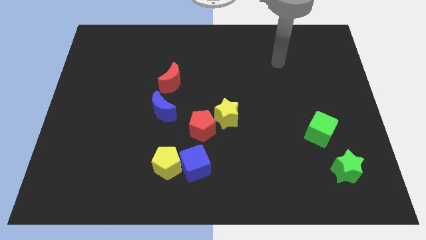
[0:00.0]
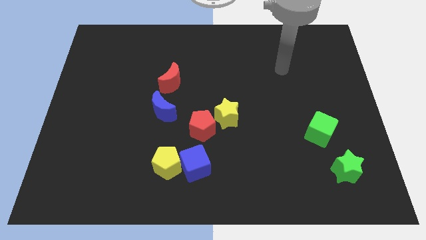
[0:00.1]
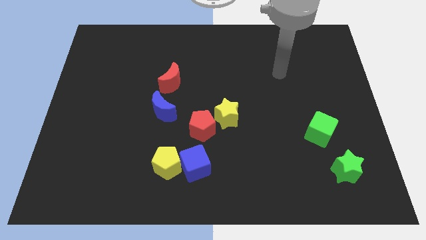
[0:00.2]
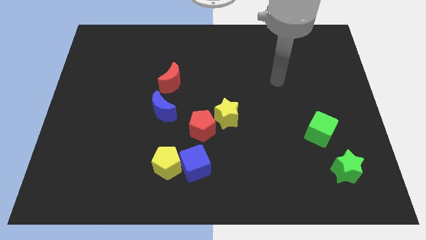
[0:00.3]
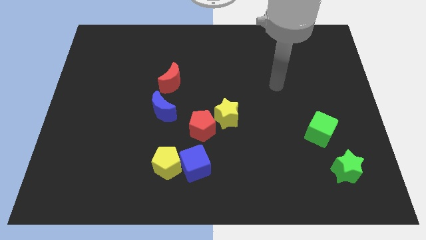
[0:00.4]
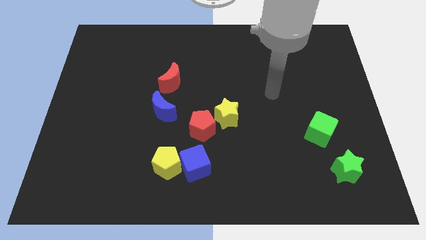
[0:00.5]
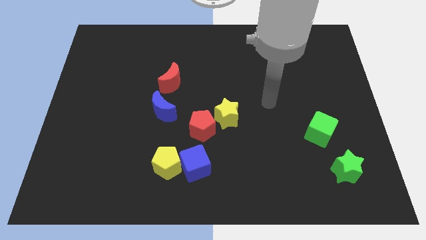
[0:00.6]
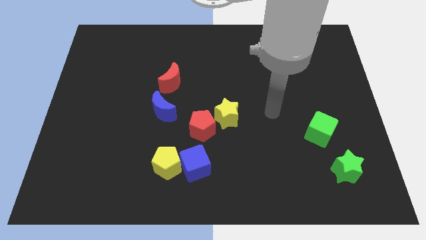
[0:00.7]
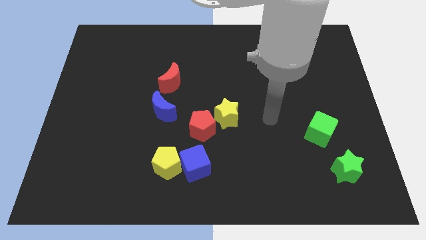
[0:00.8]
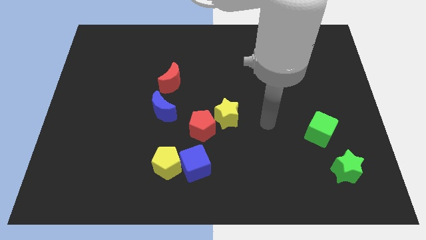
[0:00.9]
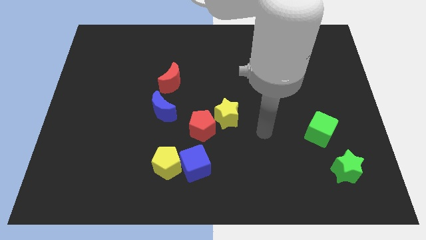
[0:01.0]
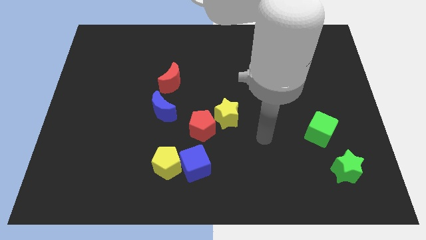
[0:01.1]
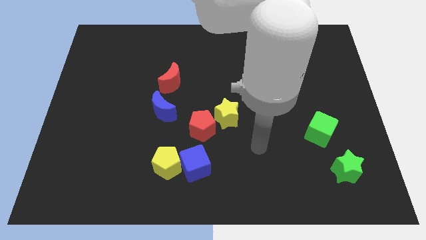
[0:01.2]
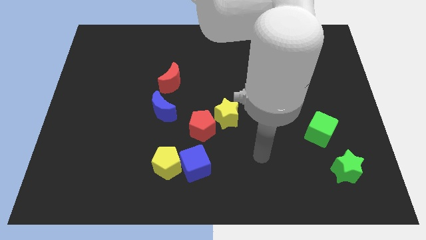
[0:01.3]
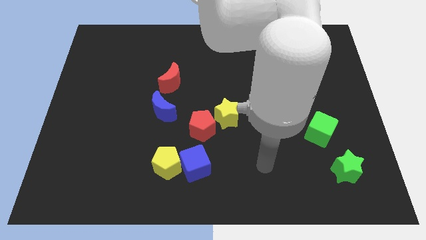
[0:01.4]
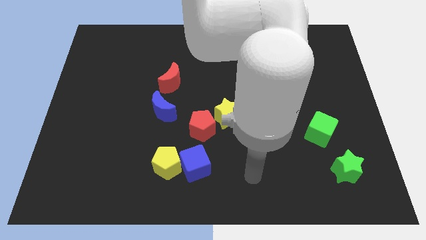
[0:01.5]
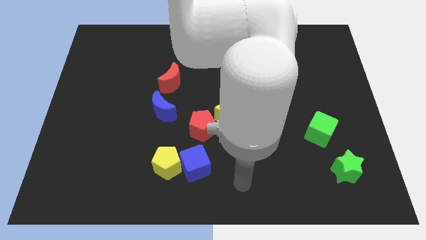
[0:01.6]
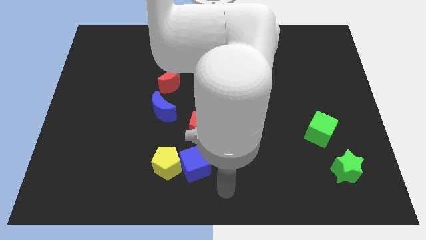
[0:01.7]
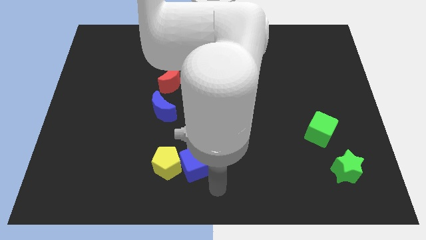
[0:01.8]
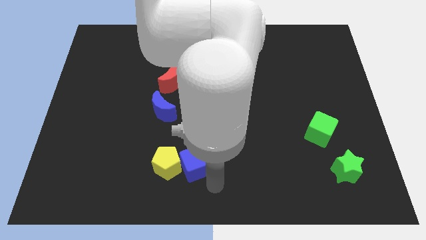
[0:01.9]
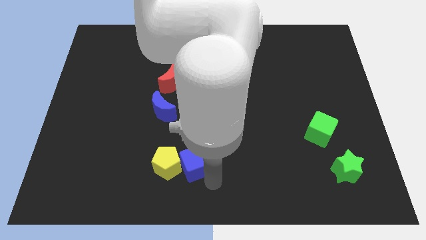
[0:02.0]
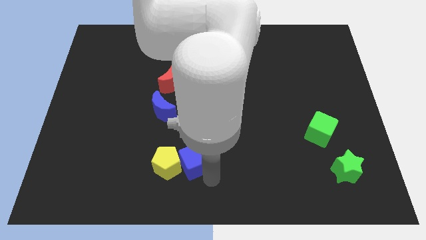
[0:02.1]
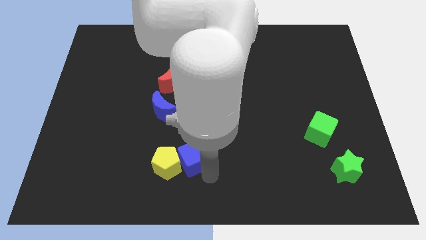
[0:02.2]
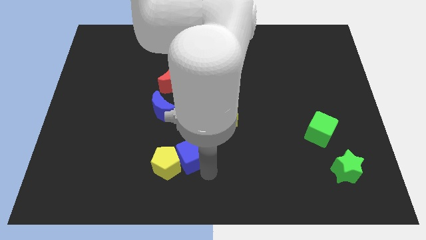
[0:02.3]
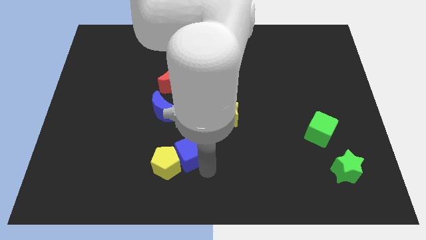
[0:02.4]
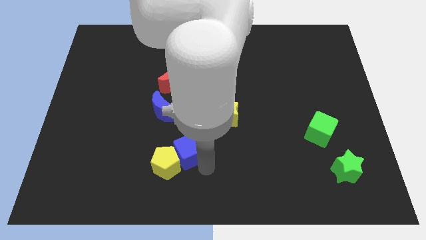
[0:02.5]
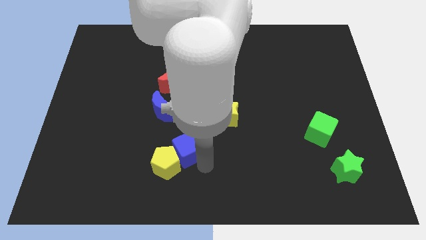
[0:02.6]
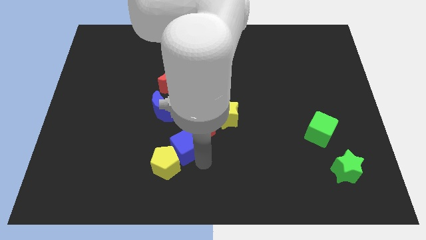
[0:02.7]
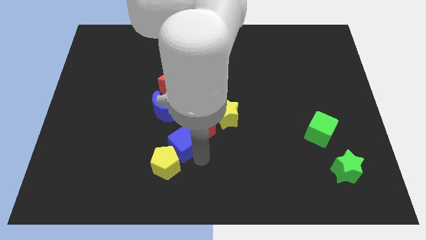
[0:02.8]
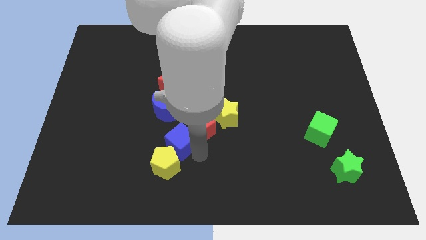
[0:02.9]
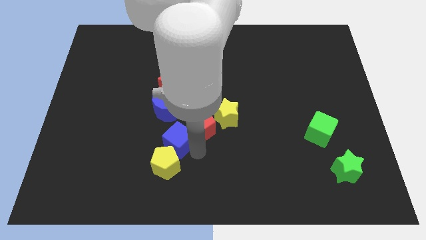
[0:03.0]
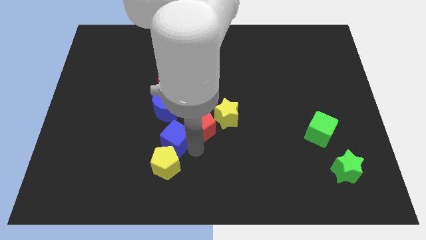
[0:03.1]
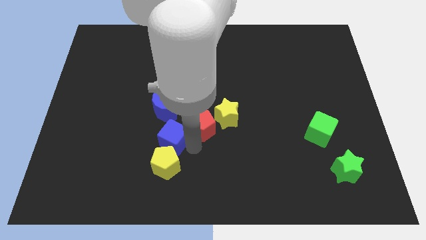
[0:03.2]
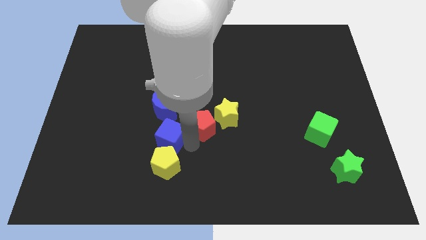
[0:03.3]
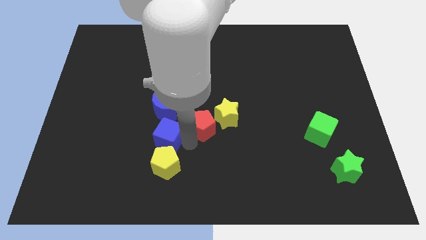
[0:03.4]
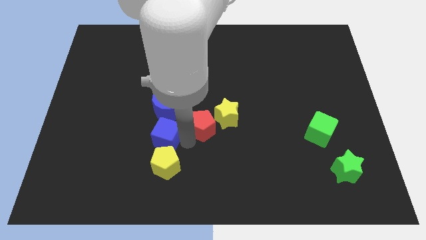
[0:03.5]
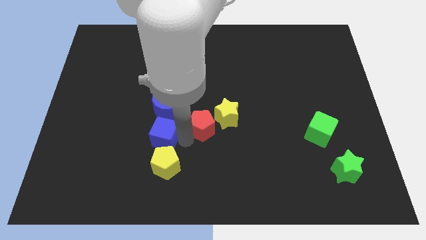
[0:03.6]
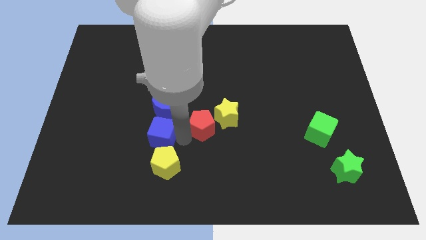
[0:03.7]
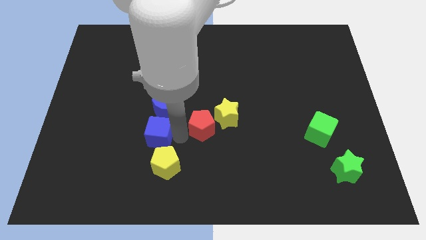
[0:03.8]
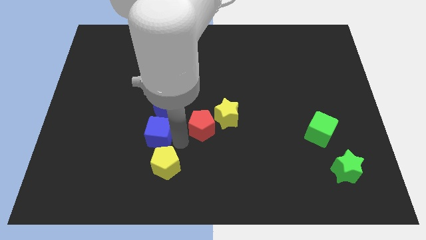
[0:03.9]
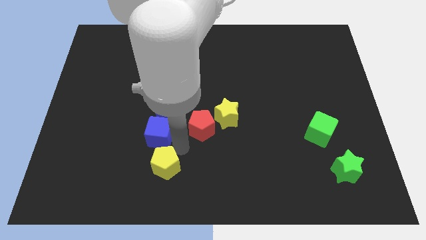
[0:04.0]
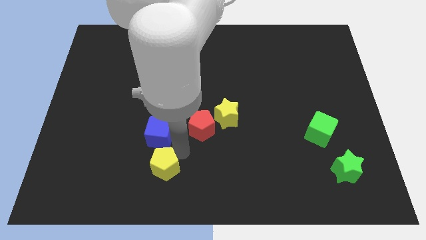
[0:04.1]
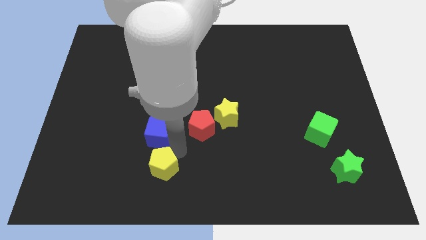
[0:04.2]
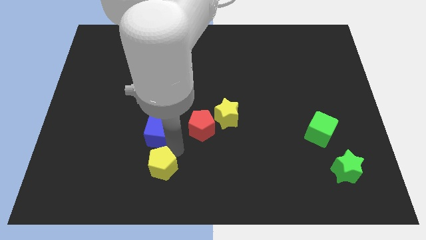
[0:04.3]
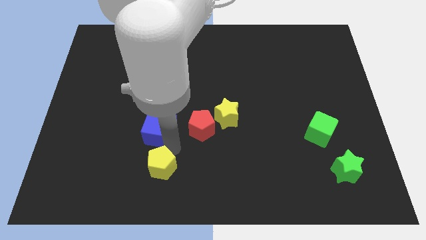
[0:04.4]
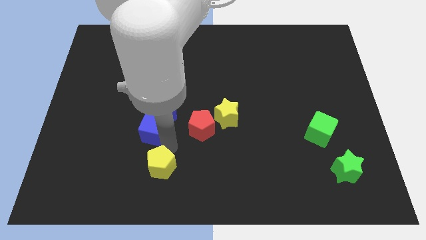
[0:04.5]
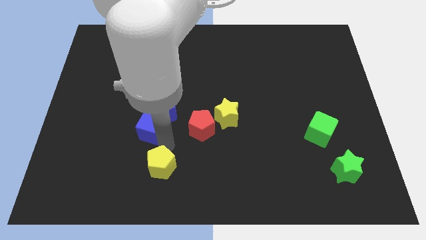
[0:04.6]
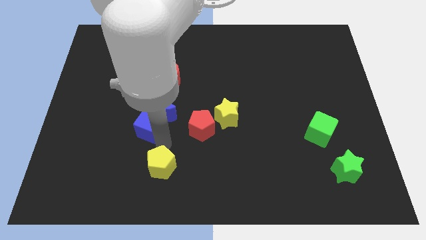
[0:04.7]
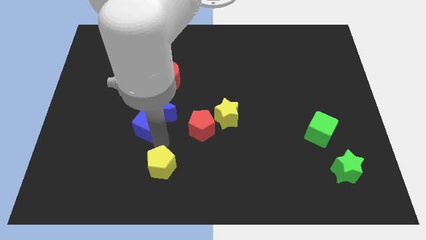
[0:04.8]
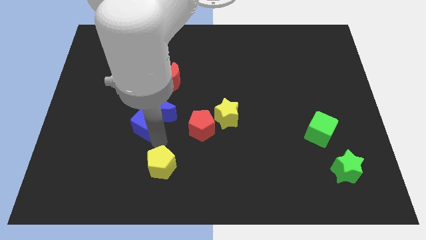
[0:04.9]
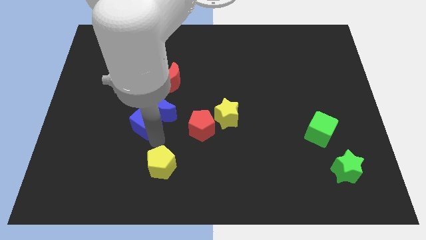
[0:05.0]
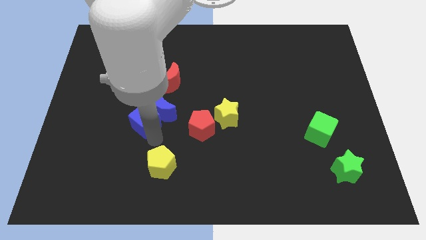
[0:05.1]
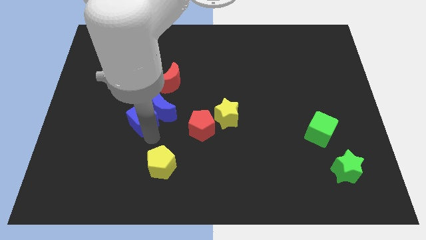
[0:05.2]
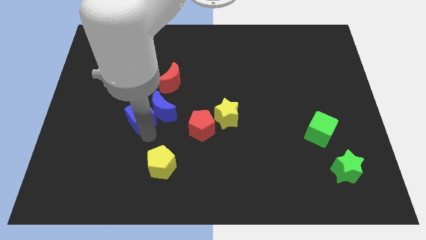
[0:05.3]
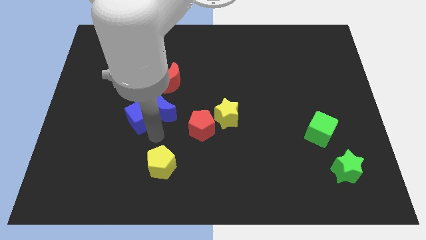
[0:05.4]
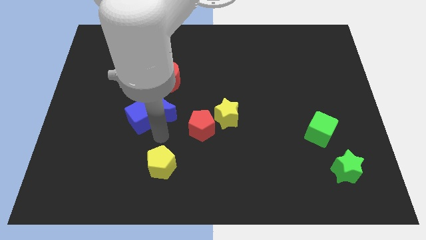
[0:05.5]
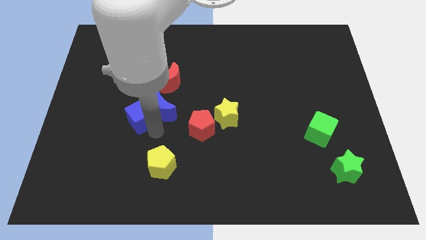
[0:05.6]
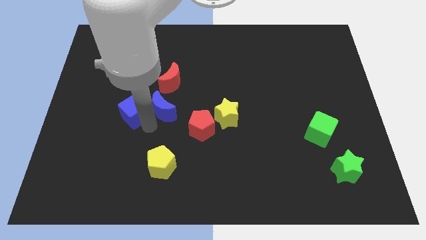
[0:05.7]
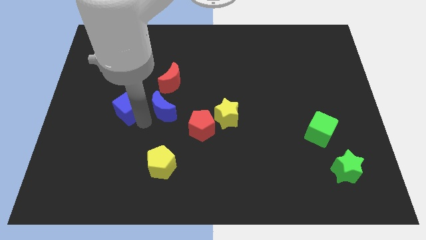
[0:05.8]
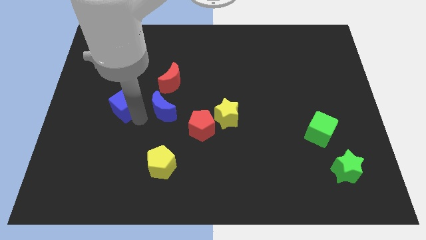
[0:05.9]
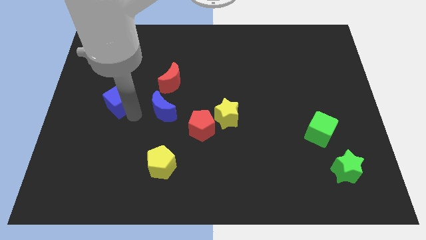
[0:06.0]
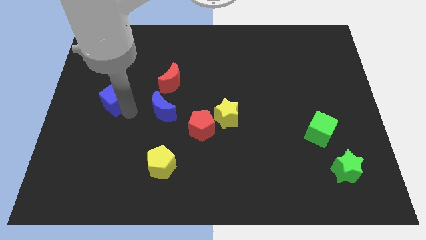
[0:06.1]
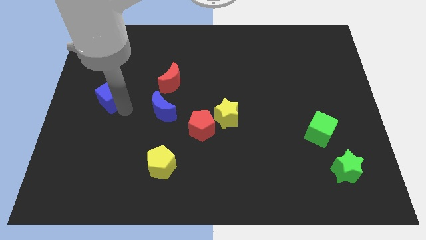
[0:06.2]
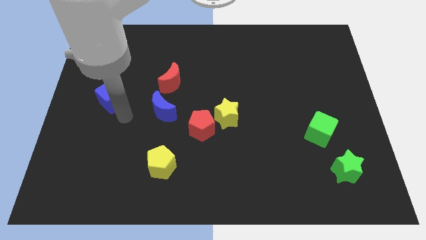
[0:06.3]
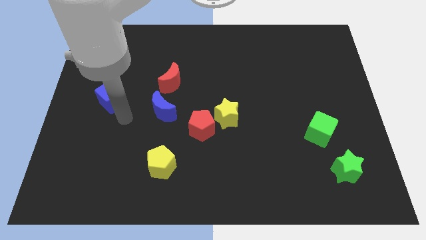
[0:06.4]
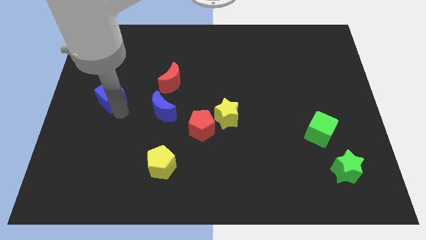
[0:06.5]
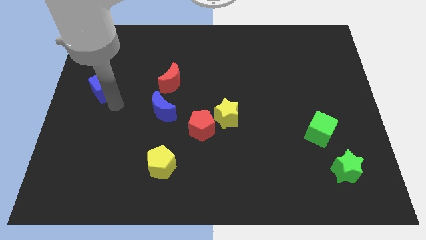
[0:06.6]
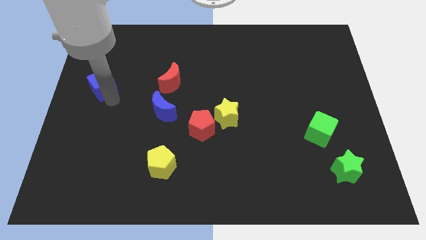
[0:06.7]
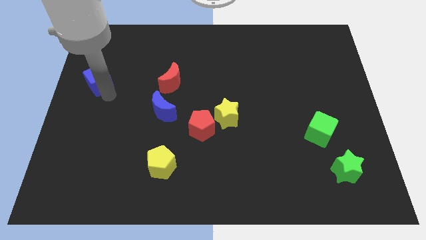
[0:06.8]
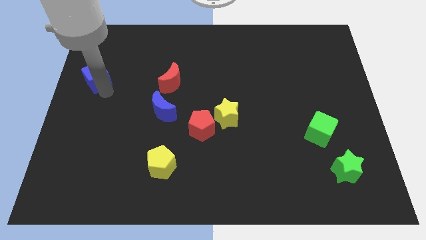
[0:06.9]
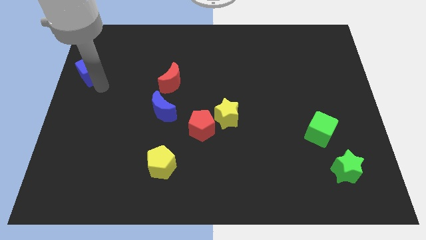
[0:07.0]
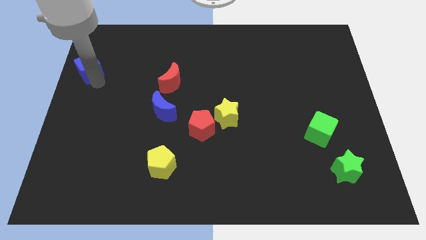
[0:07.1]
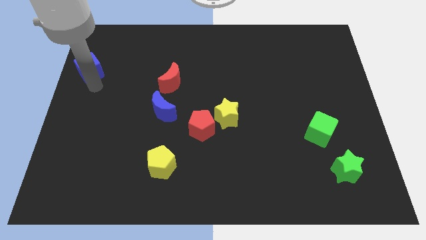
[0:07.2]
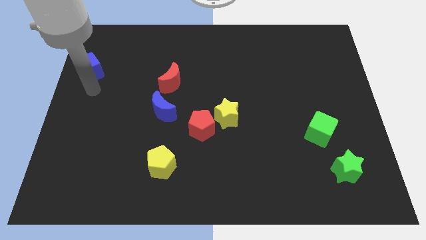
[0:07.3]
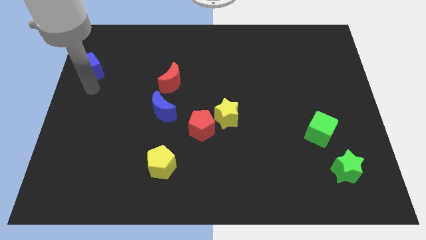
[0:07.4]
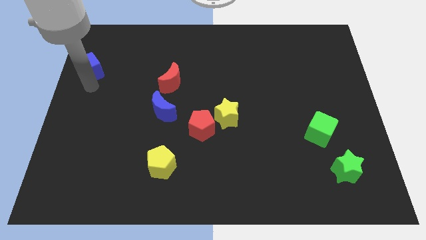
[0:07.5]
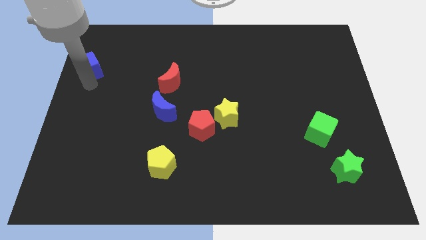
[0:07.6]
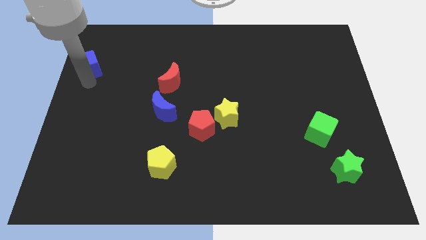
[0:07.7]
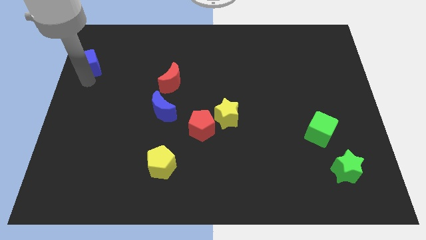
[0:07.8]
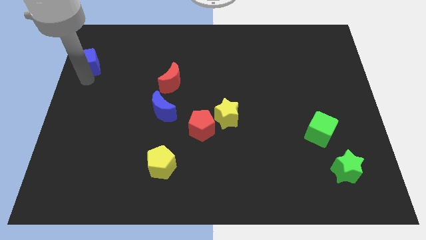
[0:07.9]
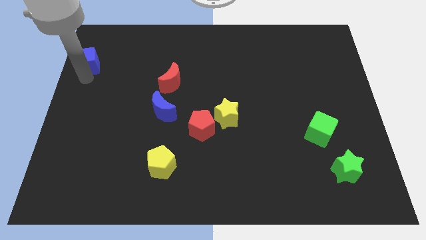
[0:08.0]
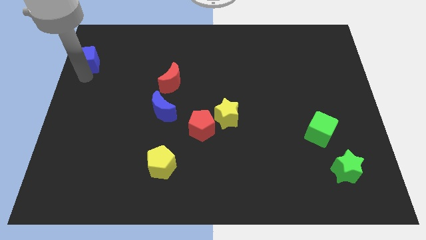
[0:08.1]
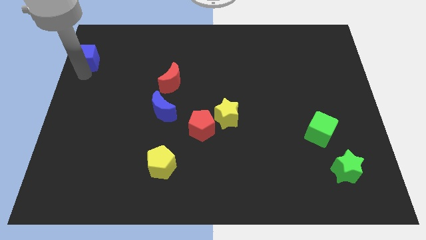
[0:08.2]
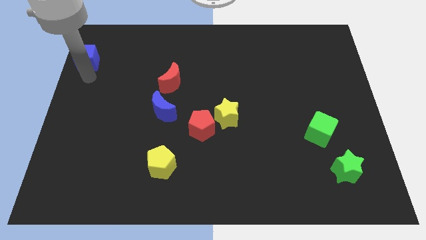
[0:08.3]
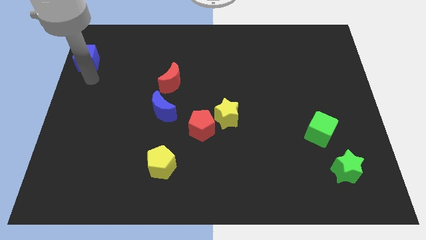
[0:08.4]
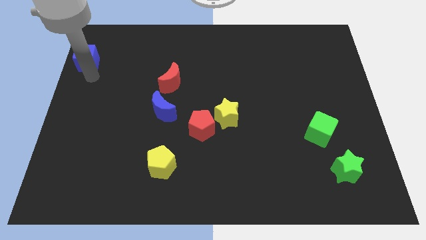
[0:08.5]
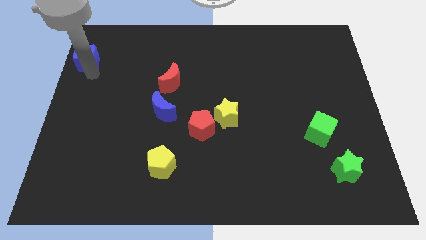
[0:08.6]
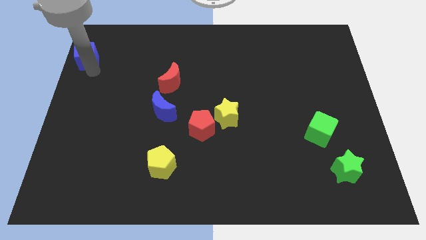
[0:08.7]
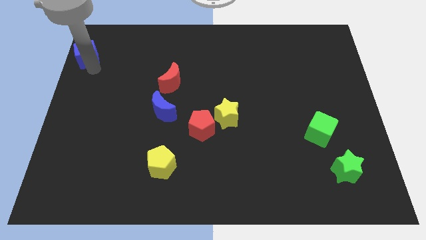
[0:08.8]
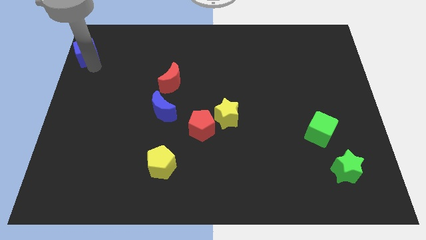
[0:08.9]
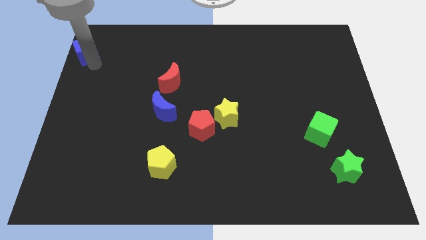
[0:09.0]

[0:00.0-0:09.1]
put the blue cube to the top left
